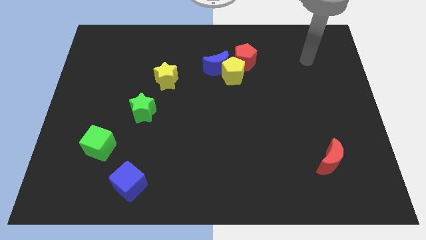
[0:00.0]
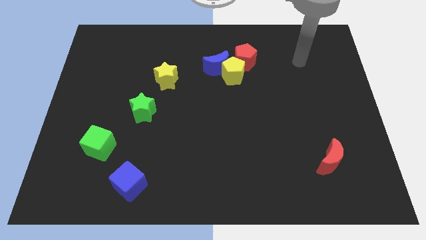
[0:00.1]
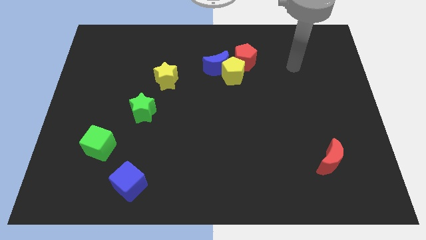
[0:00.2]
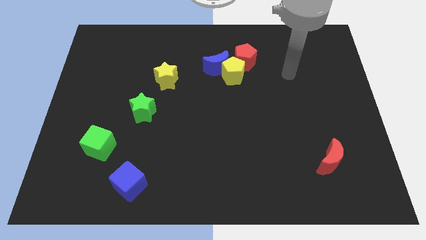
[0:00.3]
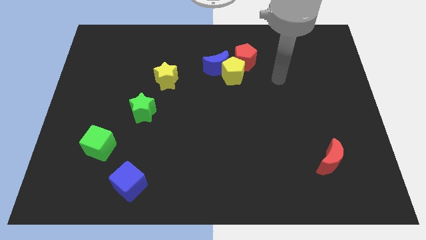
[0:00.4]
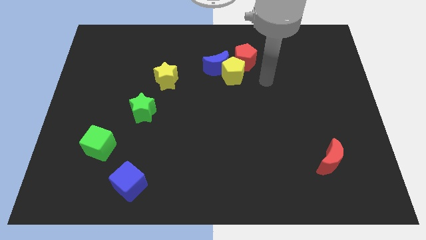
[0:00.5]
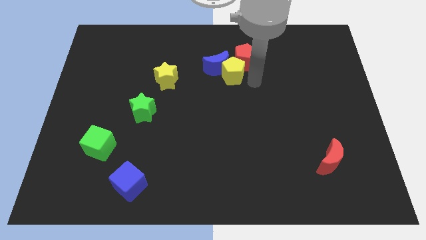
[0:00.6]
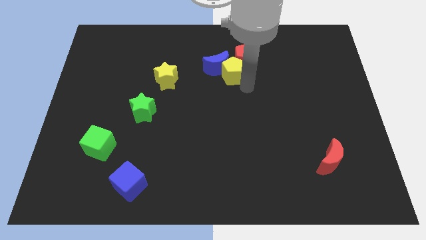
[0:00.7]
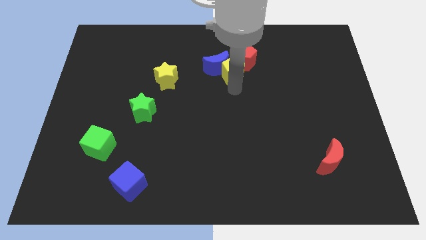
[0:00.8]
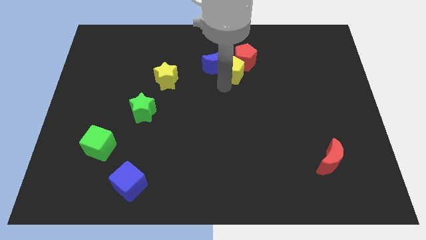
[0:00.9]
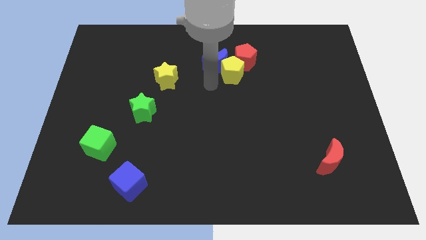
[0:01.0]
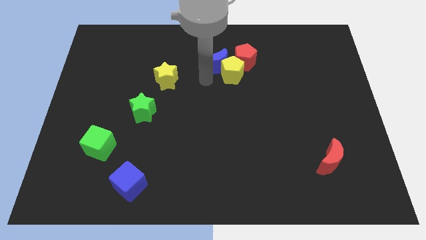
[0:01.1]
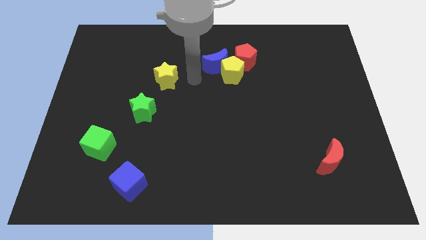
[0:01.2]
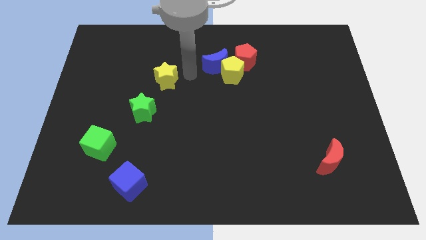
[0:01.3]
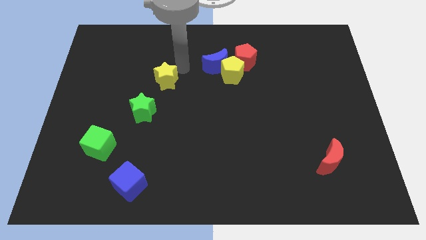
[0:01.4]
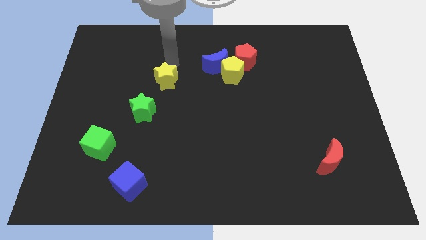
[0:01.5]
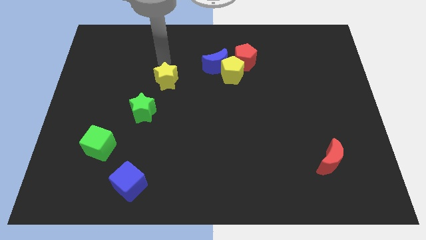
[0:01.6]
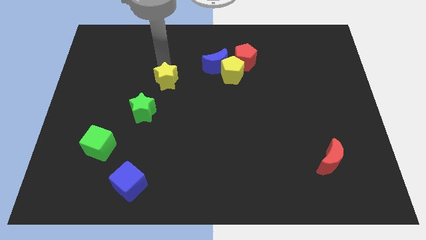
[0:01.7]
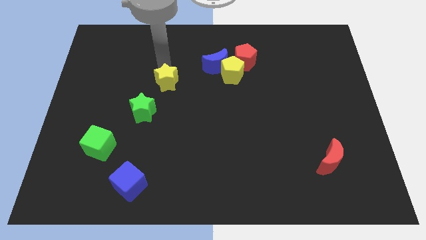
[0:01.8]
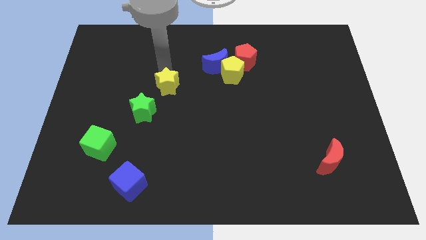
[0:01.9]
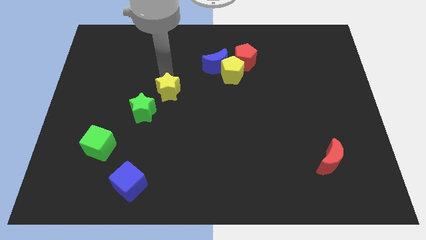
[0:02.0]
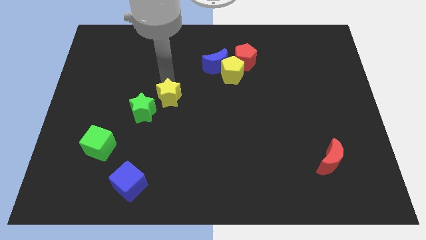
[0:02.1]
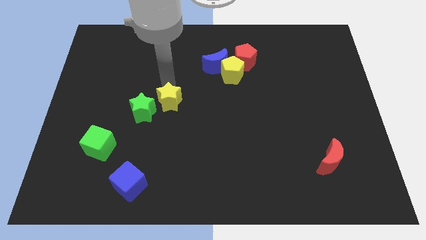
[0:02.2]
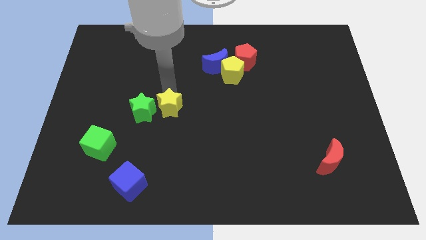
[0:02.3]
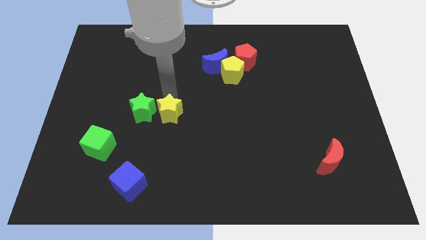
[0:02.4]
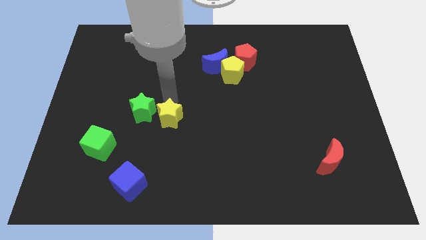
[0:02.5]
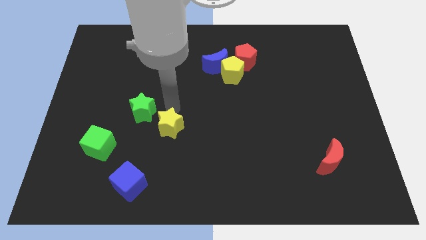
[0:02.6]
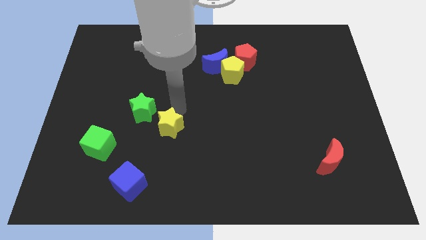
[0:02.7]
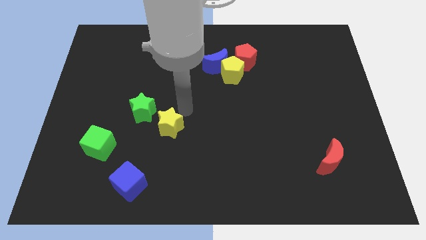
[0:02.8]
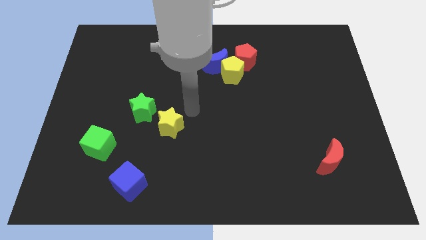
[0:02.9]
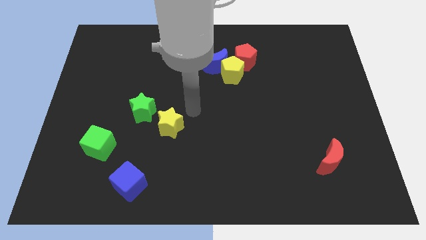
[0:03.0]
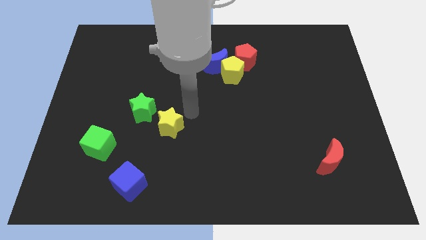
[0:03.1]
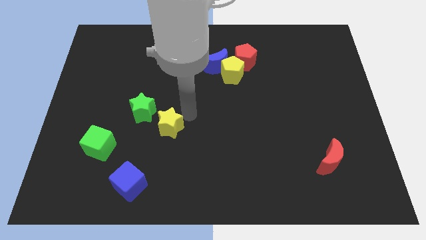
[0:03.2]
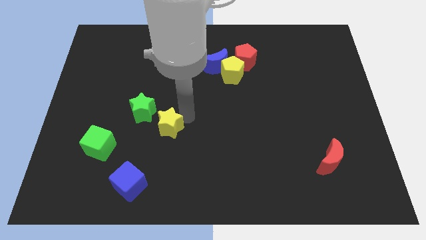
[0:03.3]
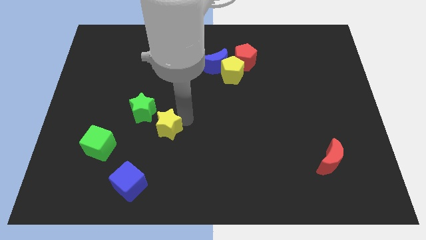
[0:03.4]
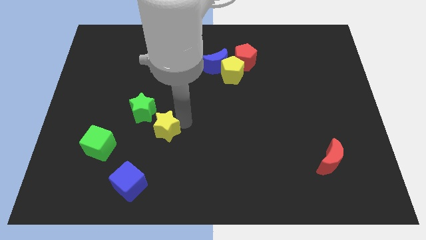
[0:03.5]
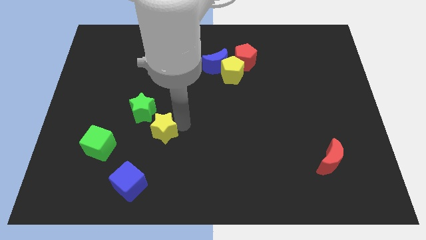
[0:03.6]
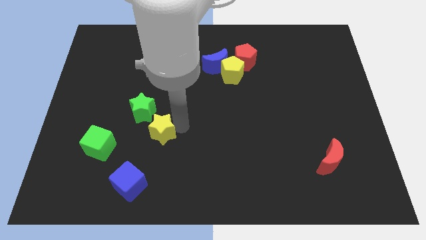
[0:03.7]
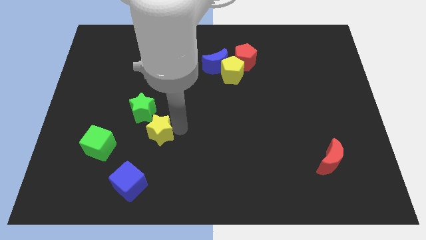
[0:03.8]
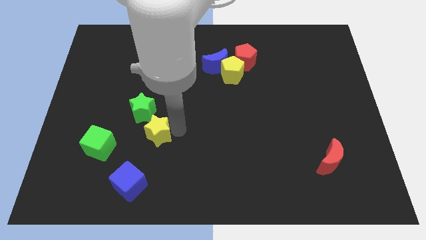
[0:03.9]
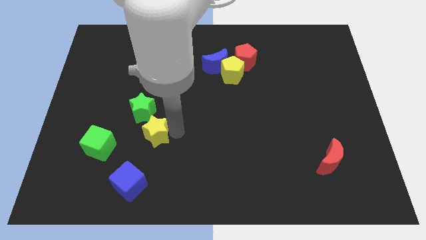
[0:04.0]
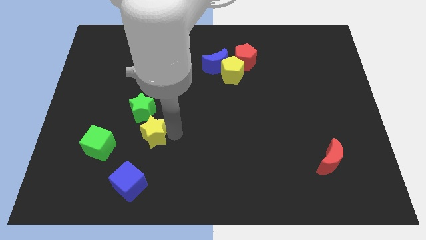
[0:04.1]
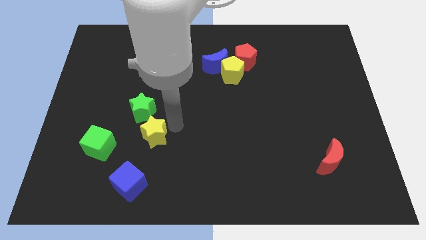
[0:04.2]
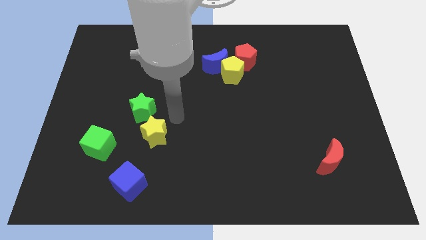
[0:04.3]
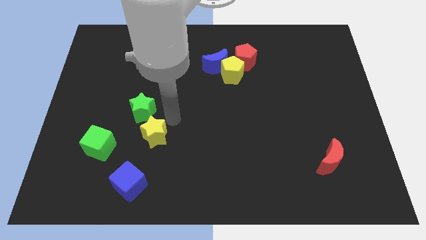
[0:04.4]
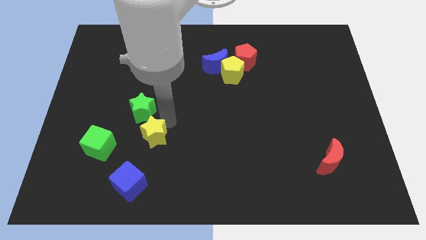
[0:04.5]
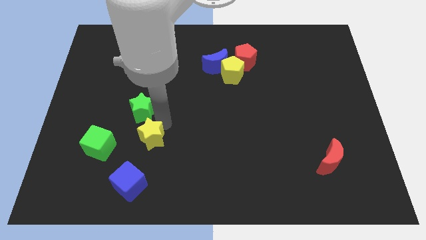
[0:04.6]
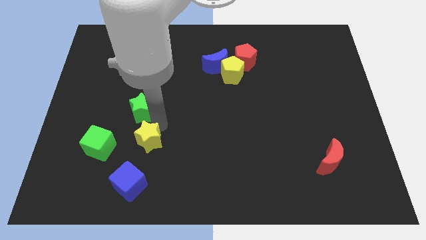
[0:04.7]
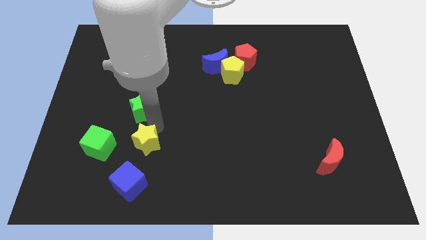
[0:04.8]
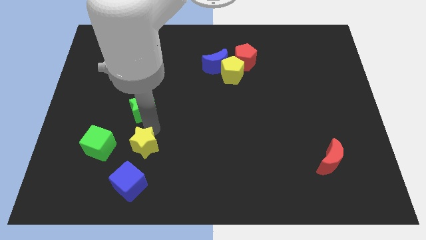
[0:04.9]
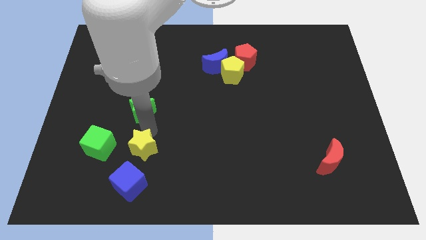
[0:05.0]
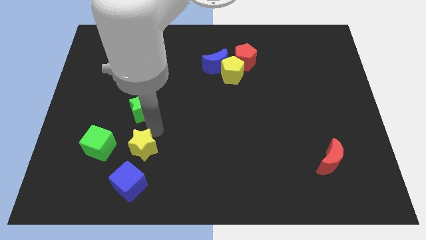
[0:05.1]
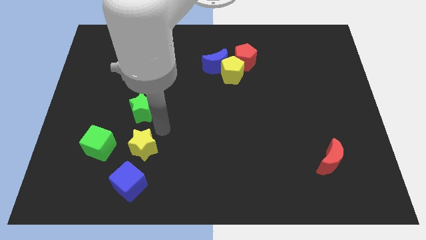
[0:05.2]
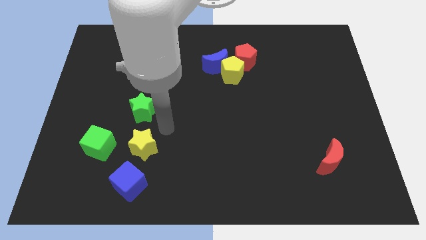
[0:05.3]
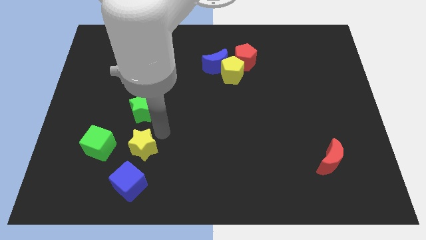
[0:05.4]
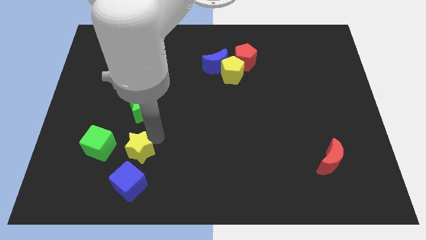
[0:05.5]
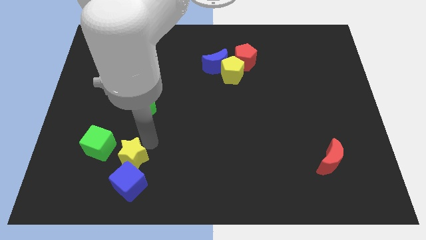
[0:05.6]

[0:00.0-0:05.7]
move the yellow star to the bottom right of the green cube

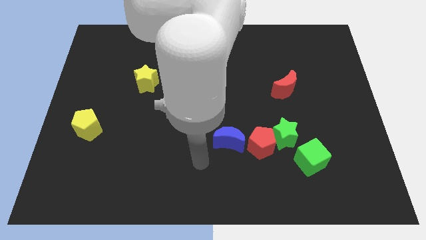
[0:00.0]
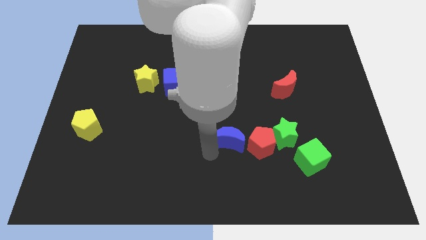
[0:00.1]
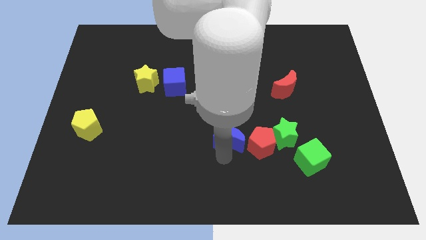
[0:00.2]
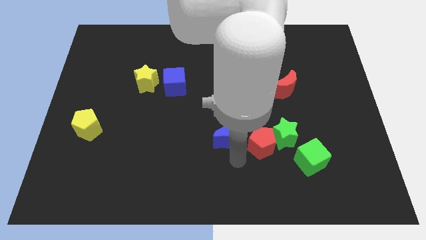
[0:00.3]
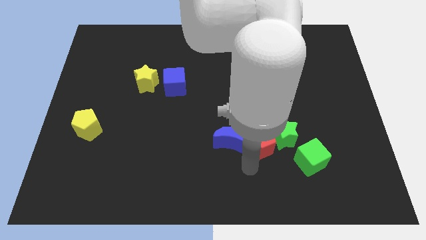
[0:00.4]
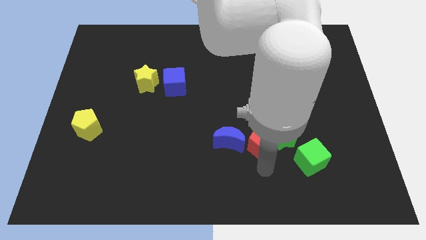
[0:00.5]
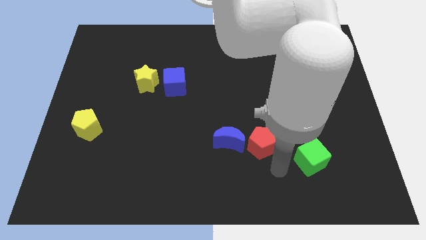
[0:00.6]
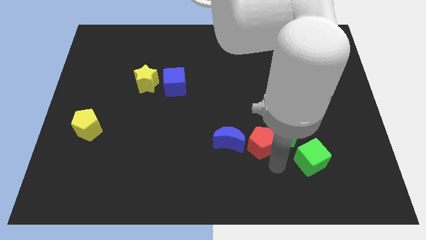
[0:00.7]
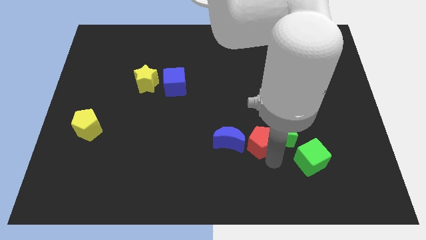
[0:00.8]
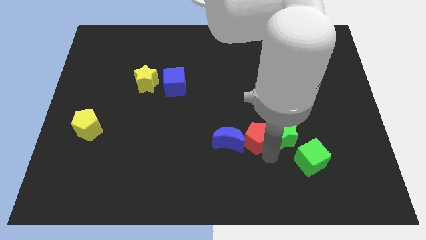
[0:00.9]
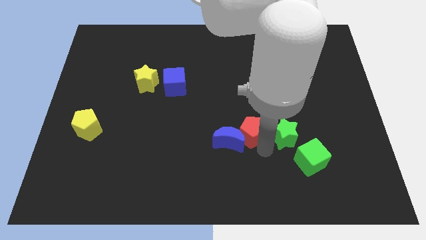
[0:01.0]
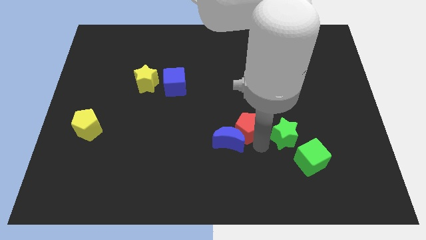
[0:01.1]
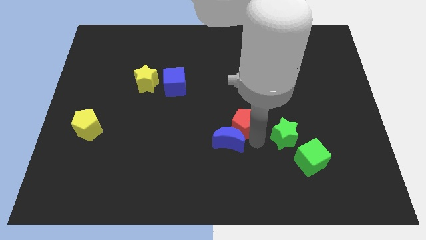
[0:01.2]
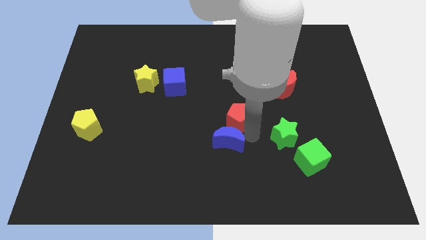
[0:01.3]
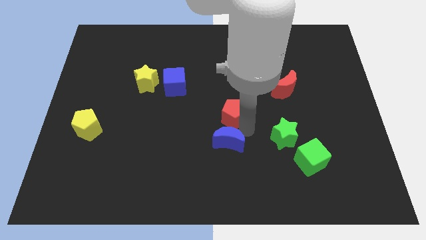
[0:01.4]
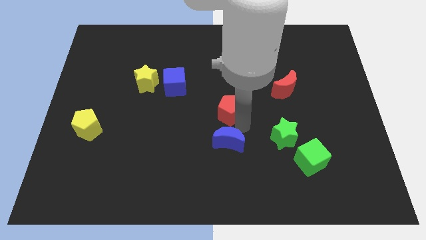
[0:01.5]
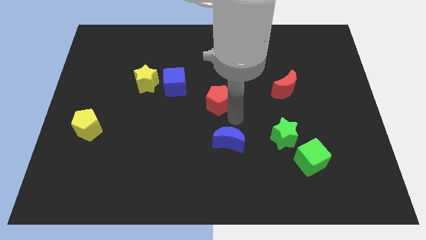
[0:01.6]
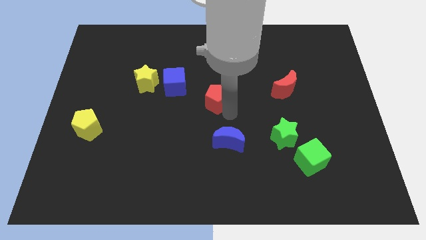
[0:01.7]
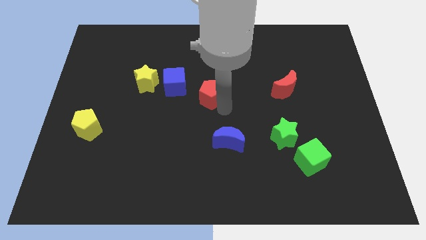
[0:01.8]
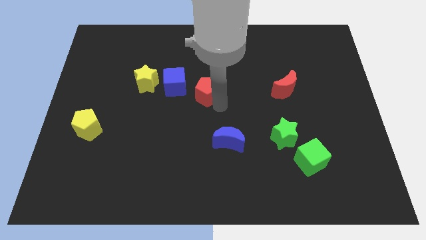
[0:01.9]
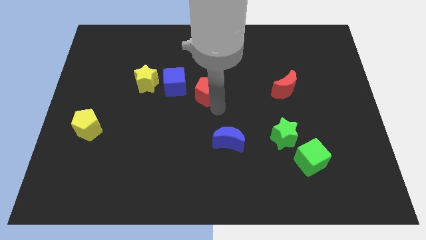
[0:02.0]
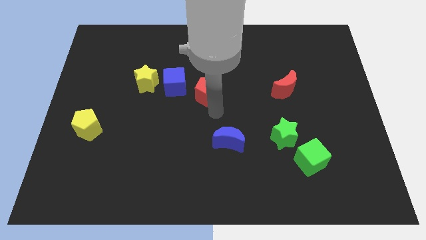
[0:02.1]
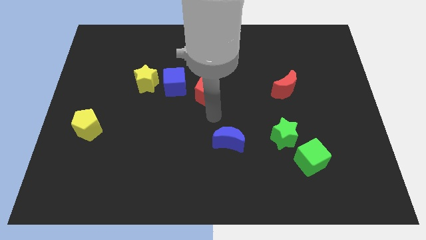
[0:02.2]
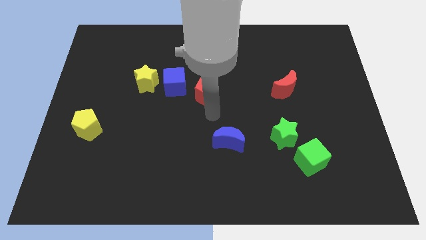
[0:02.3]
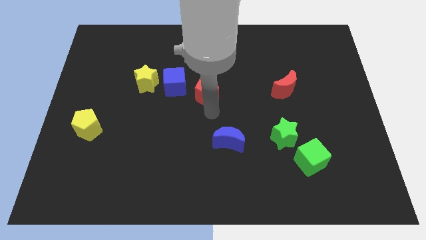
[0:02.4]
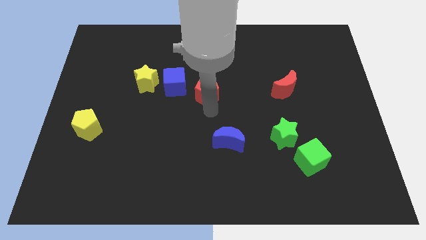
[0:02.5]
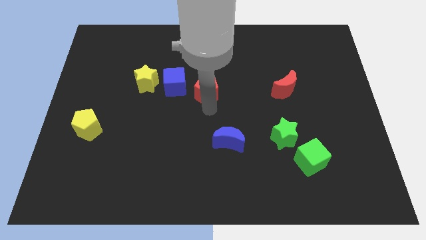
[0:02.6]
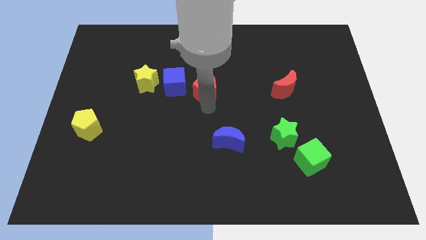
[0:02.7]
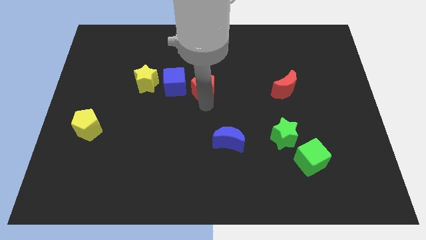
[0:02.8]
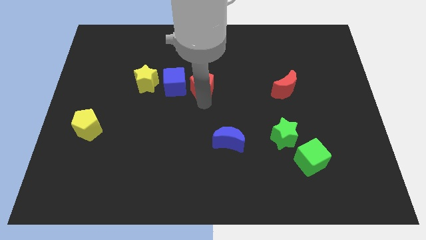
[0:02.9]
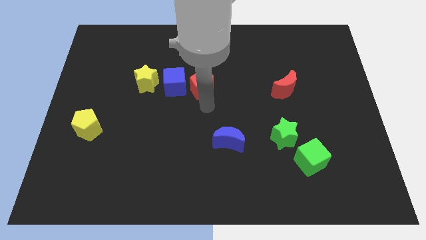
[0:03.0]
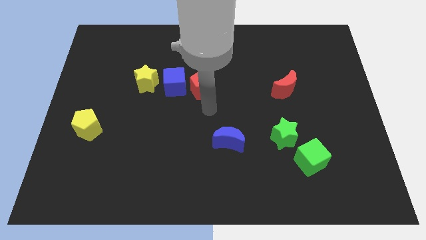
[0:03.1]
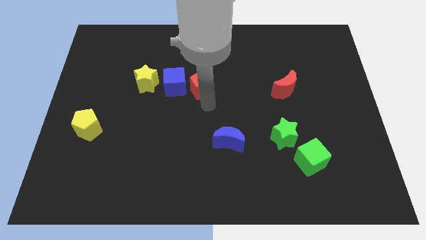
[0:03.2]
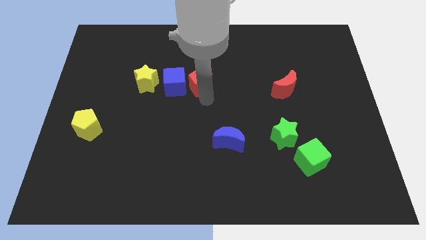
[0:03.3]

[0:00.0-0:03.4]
put the red pentagon diagonally up and to the right of the blue cube
